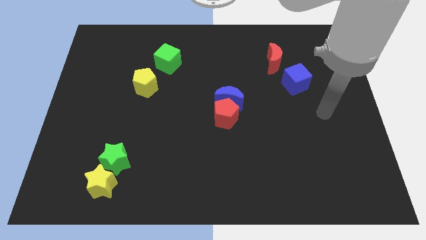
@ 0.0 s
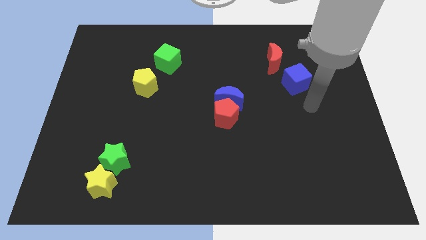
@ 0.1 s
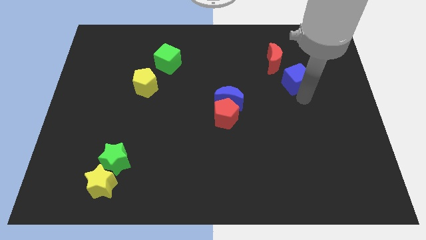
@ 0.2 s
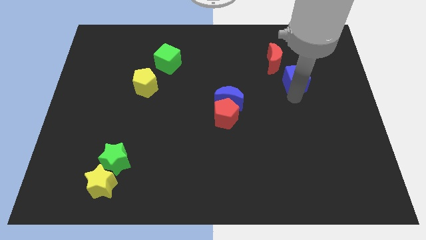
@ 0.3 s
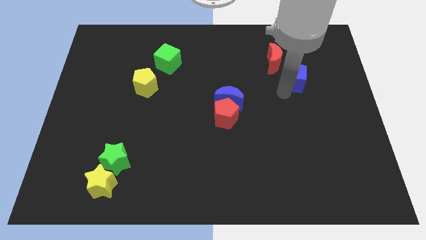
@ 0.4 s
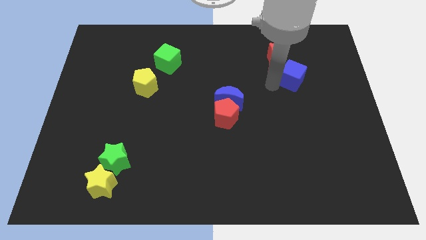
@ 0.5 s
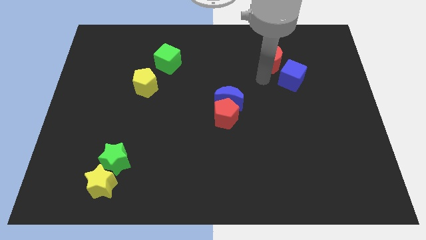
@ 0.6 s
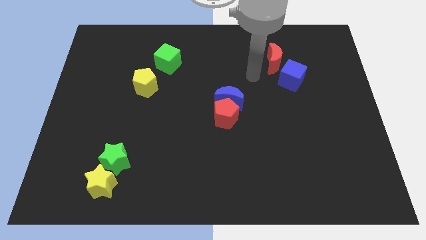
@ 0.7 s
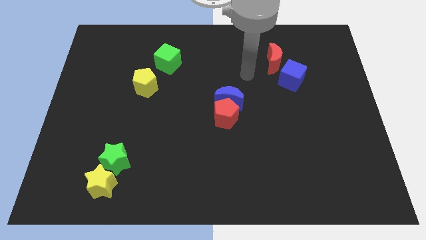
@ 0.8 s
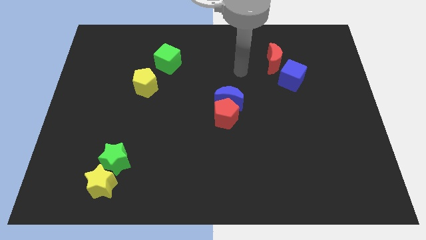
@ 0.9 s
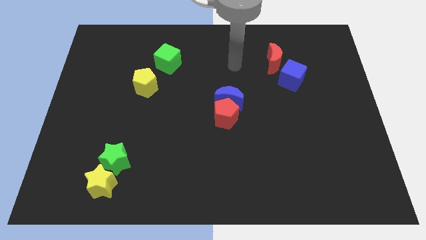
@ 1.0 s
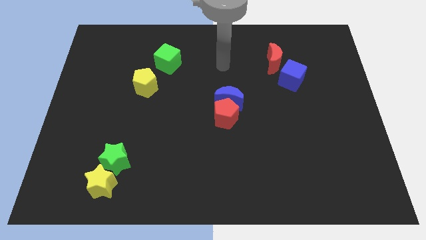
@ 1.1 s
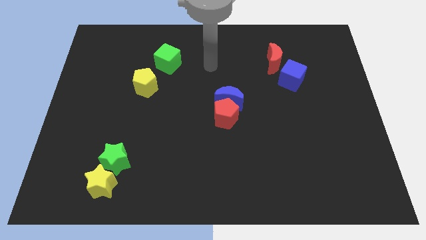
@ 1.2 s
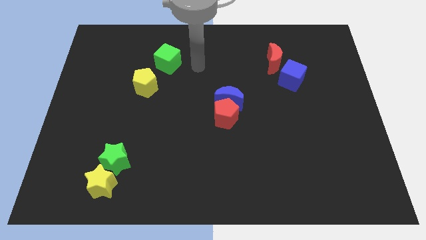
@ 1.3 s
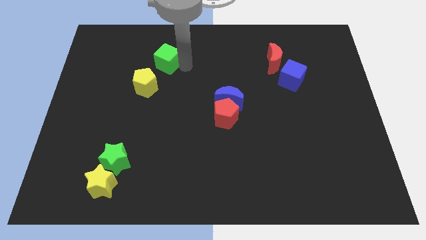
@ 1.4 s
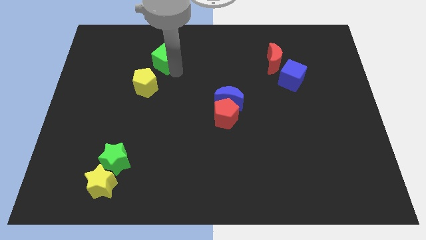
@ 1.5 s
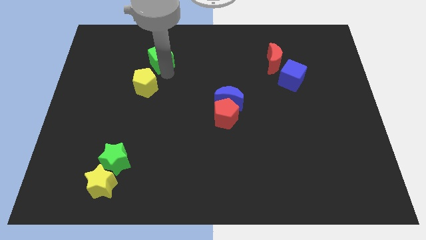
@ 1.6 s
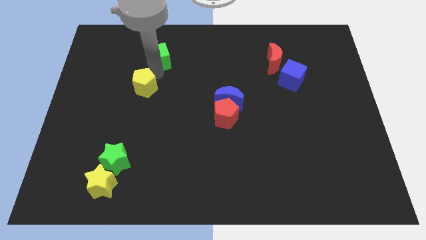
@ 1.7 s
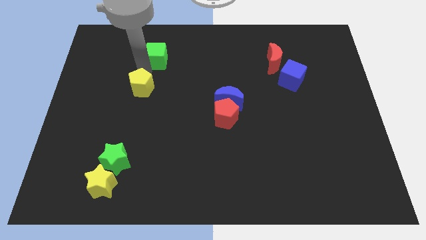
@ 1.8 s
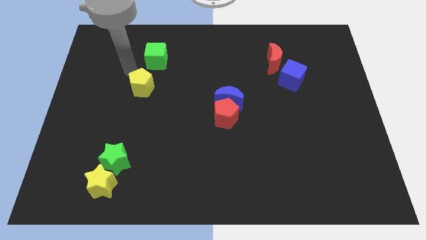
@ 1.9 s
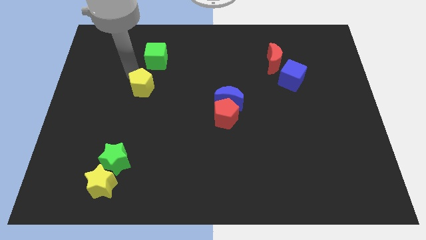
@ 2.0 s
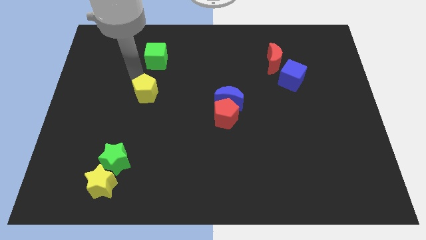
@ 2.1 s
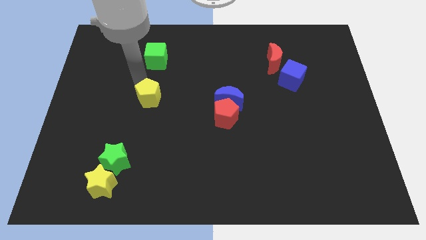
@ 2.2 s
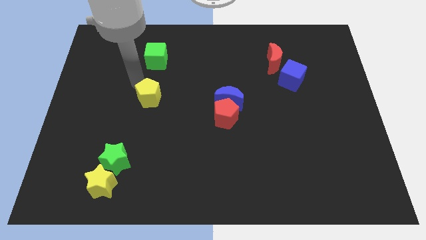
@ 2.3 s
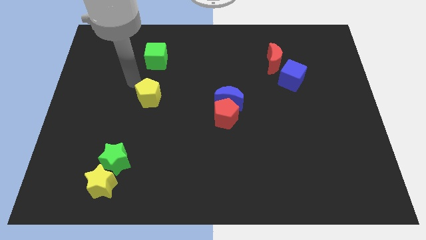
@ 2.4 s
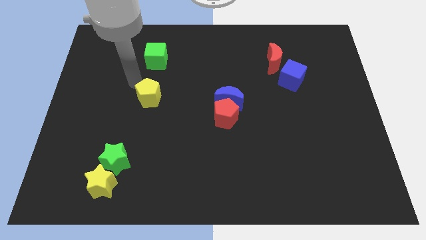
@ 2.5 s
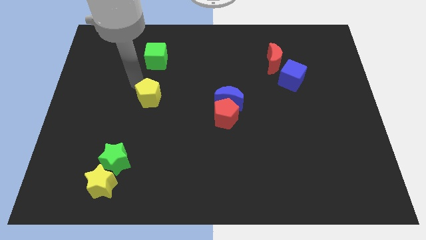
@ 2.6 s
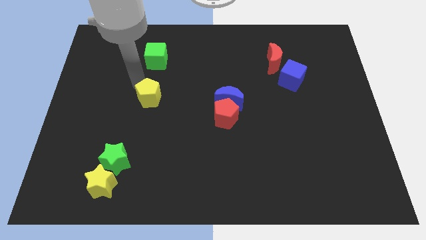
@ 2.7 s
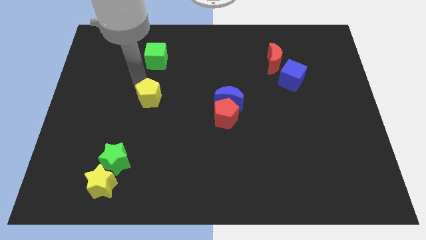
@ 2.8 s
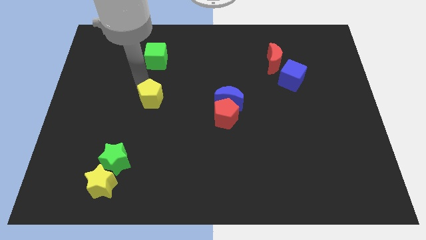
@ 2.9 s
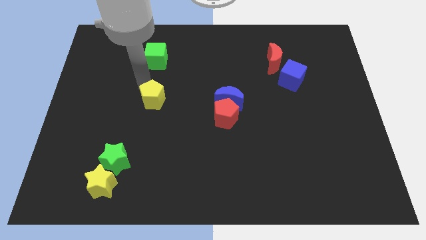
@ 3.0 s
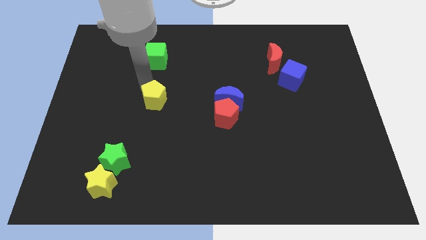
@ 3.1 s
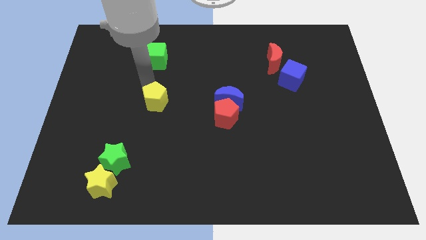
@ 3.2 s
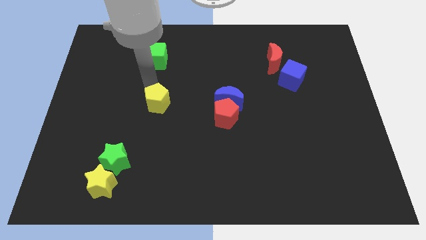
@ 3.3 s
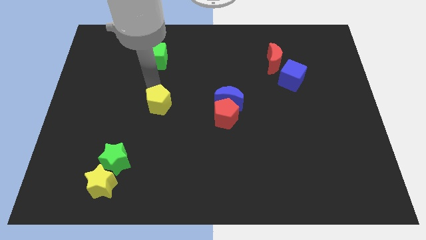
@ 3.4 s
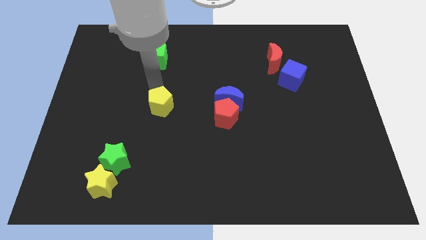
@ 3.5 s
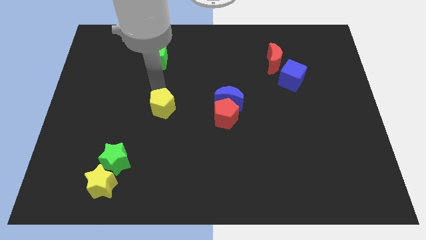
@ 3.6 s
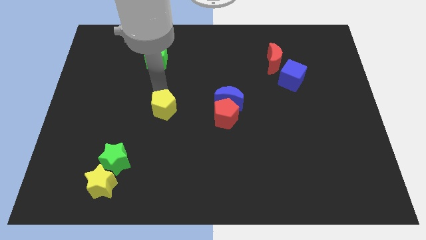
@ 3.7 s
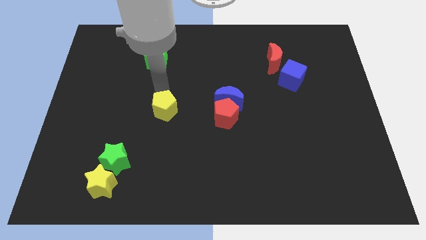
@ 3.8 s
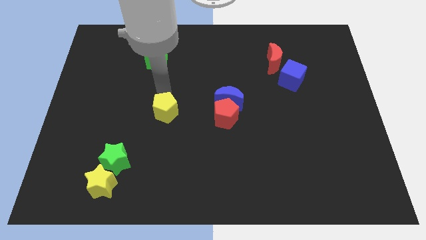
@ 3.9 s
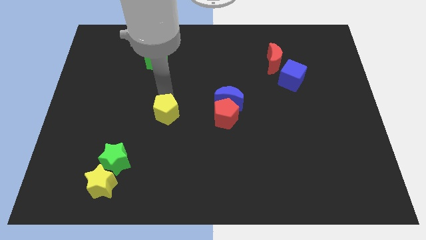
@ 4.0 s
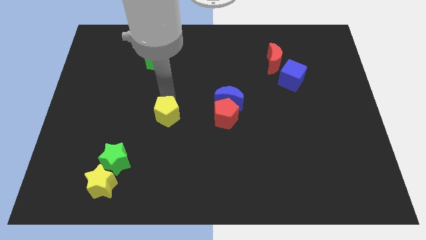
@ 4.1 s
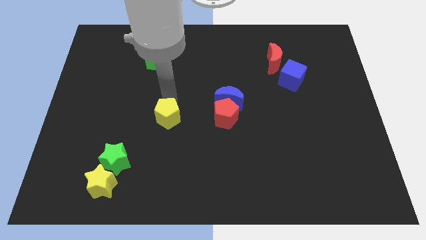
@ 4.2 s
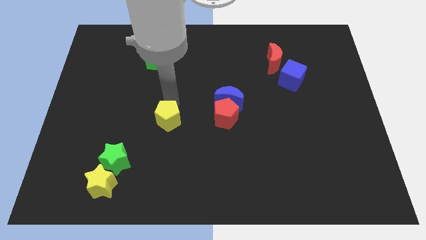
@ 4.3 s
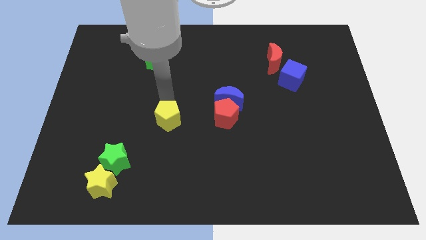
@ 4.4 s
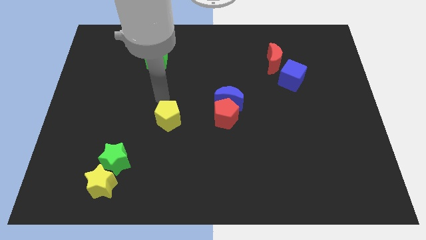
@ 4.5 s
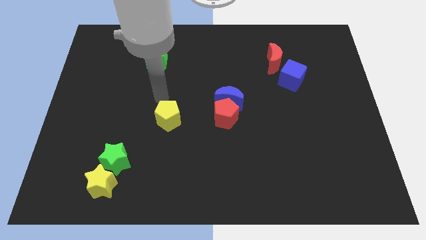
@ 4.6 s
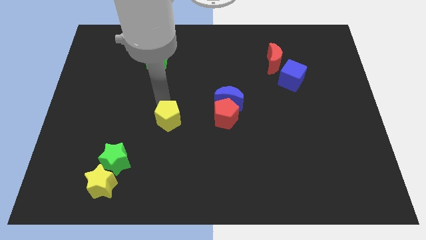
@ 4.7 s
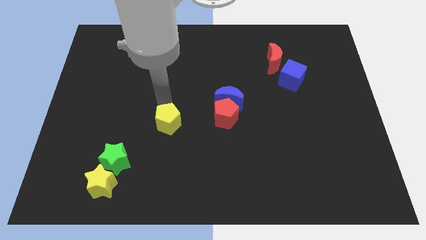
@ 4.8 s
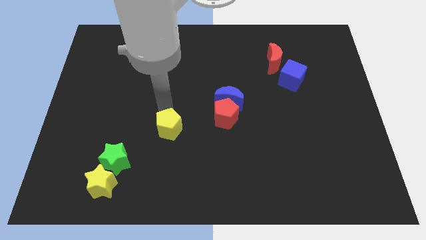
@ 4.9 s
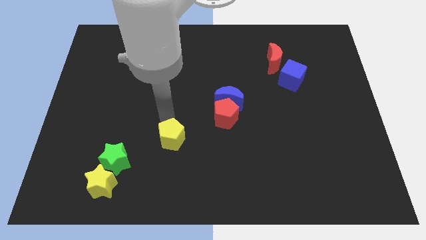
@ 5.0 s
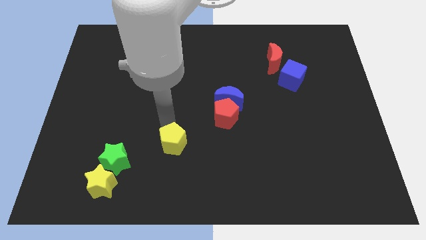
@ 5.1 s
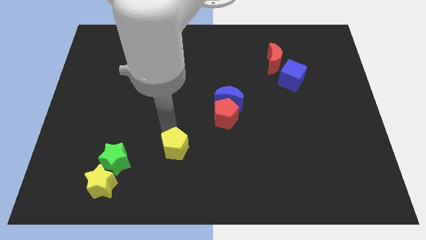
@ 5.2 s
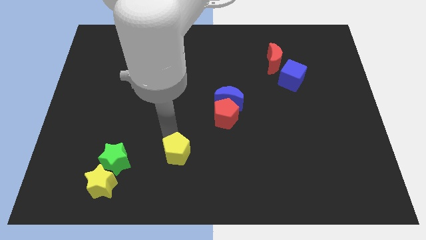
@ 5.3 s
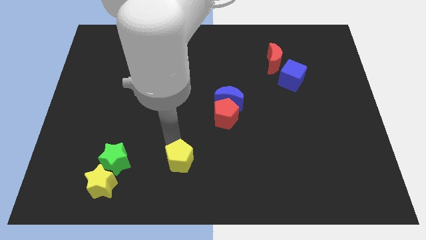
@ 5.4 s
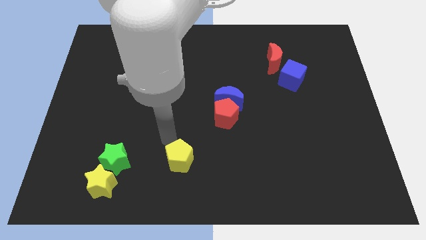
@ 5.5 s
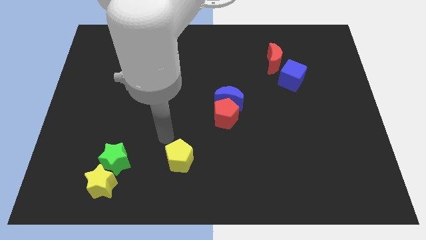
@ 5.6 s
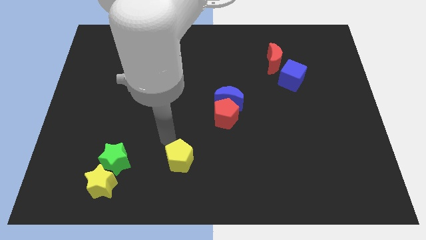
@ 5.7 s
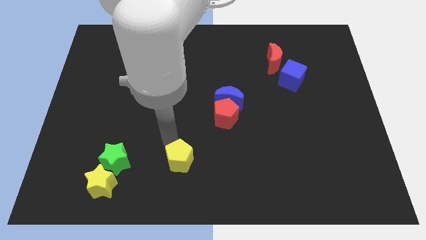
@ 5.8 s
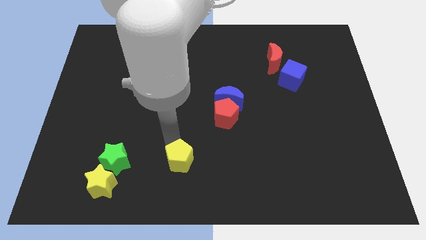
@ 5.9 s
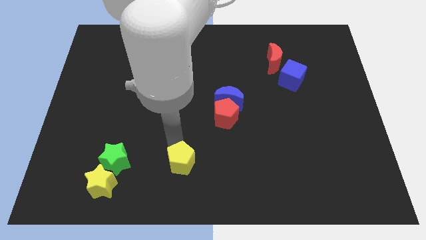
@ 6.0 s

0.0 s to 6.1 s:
slide the yellow pentagon to the bottom side

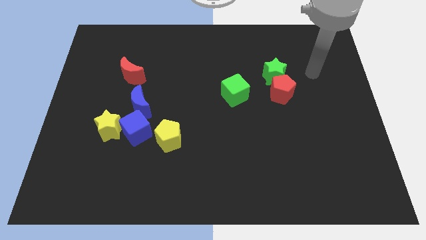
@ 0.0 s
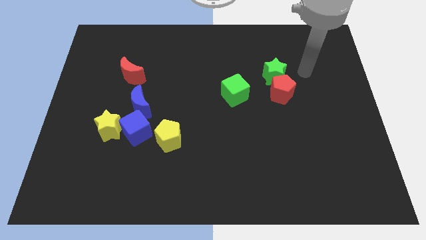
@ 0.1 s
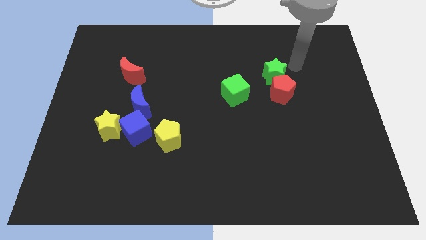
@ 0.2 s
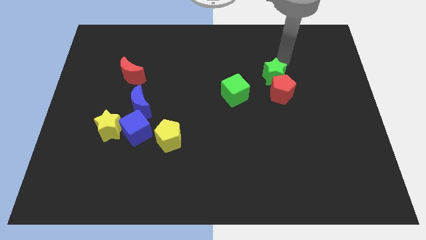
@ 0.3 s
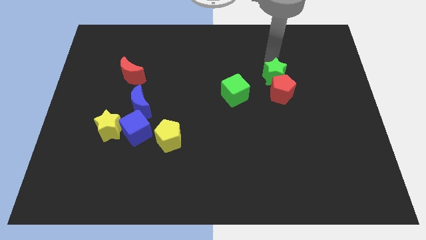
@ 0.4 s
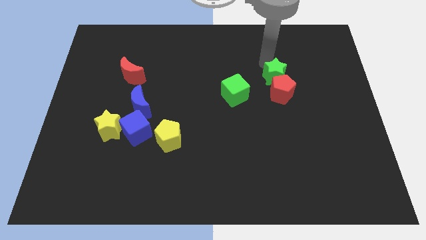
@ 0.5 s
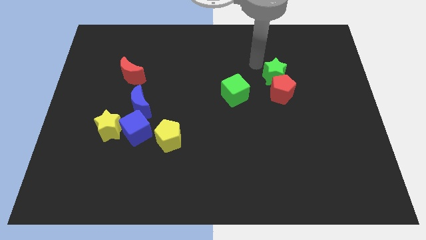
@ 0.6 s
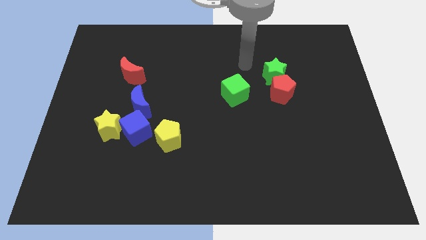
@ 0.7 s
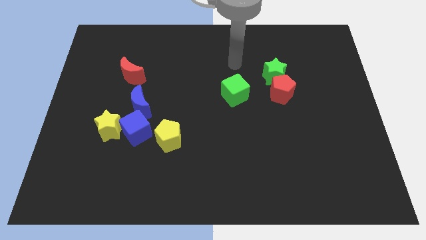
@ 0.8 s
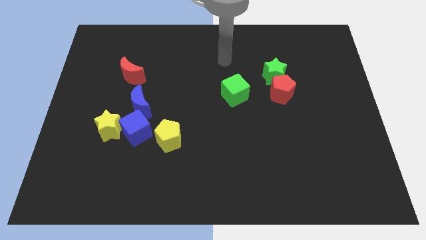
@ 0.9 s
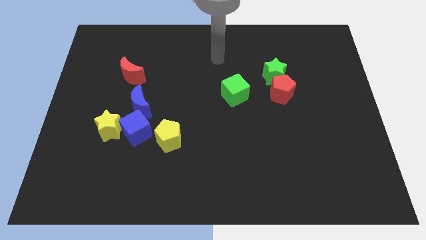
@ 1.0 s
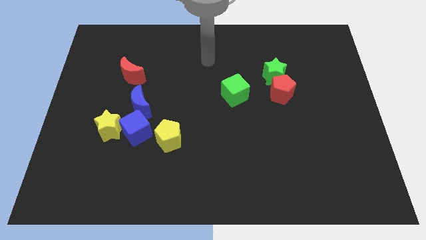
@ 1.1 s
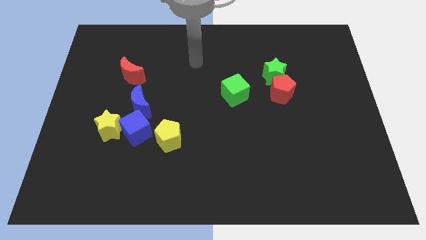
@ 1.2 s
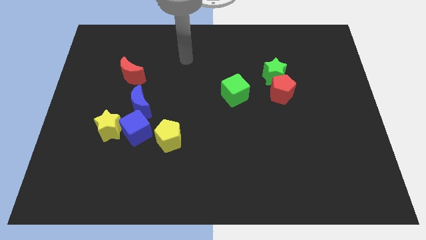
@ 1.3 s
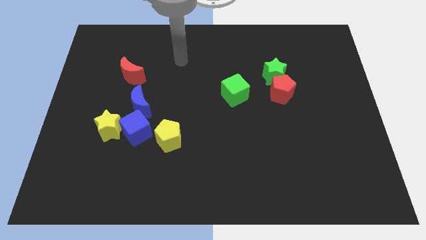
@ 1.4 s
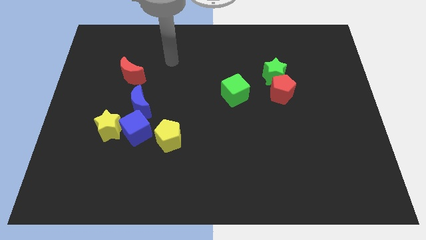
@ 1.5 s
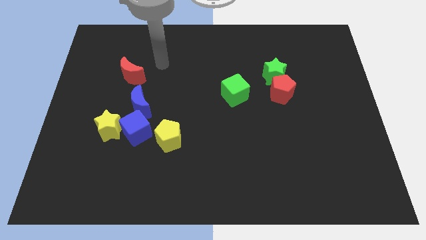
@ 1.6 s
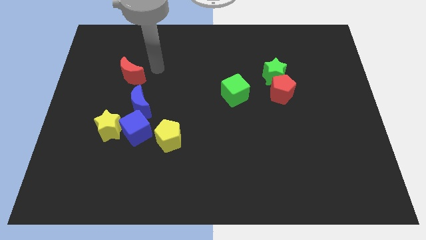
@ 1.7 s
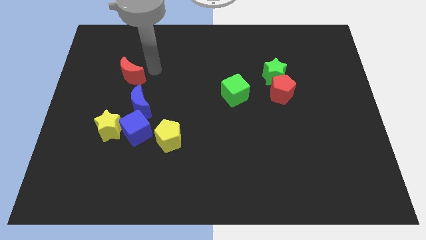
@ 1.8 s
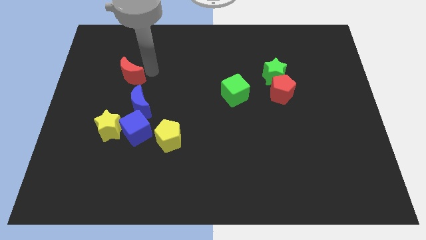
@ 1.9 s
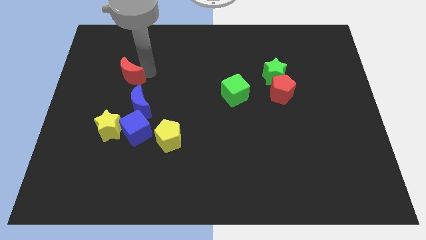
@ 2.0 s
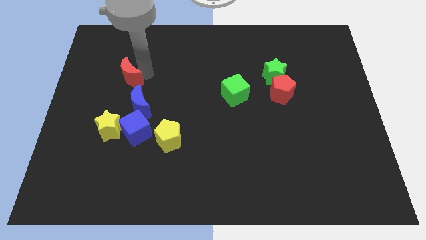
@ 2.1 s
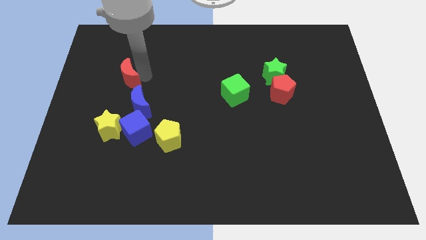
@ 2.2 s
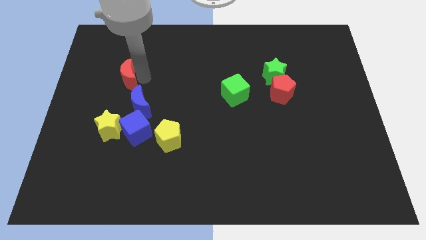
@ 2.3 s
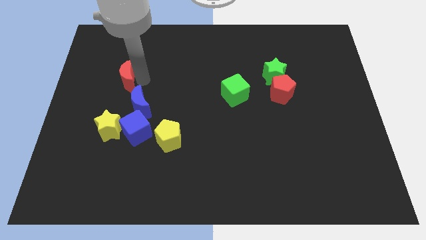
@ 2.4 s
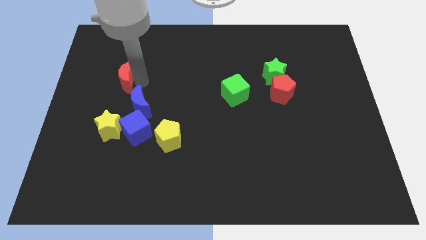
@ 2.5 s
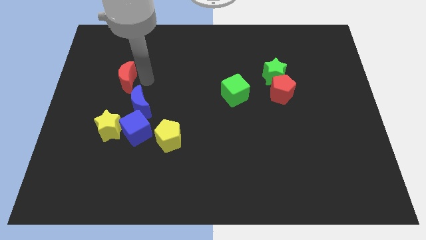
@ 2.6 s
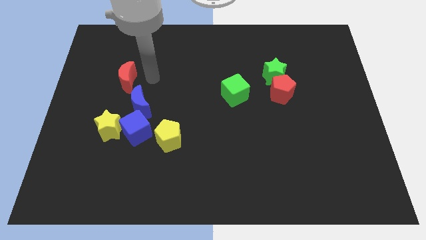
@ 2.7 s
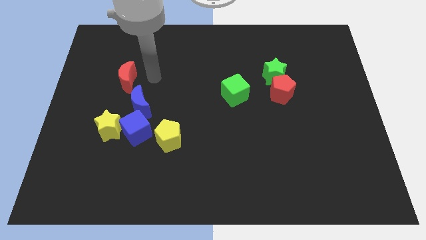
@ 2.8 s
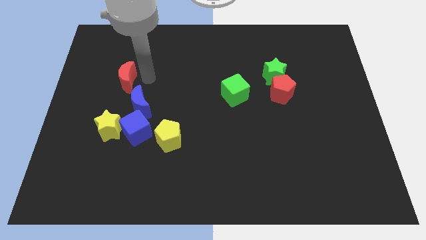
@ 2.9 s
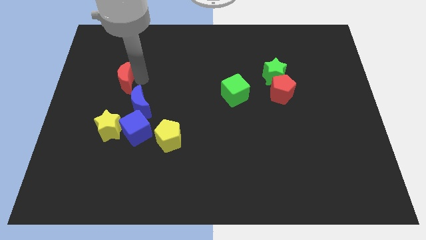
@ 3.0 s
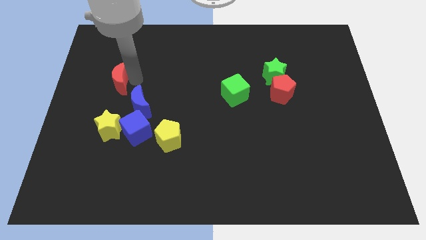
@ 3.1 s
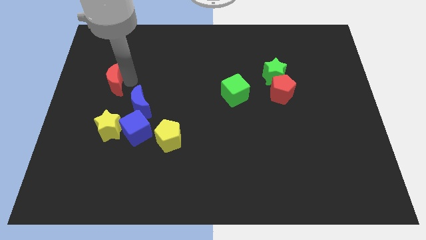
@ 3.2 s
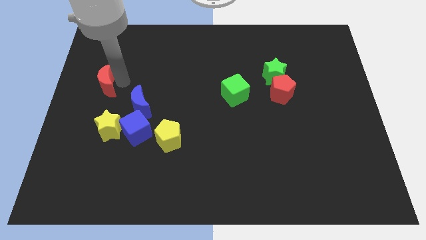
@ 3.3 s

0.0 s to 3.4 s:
move the red moon to the left side of the board
